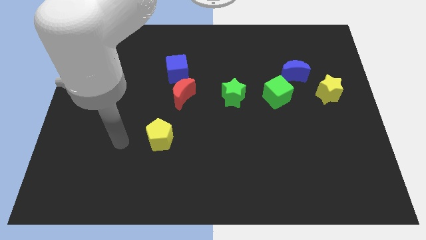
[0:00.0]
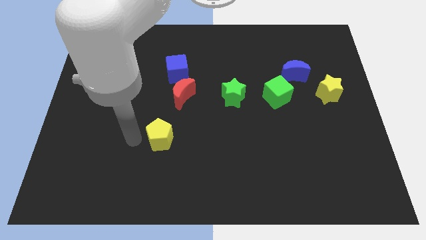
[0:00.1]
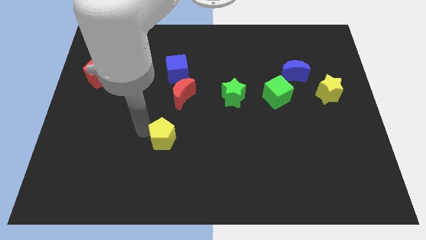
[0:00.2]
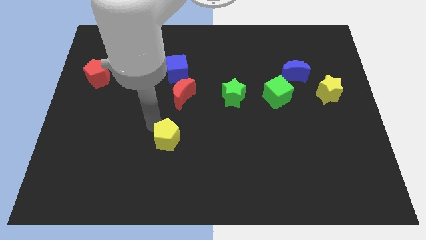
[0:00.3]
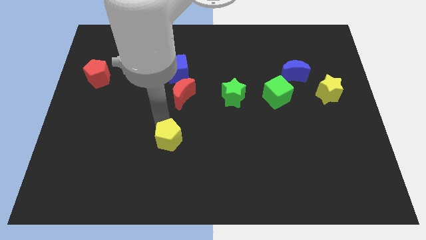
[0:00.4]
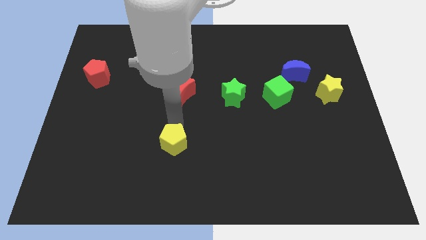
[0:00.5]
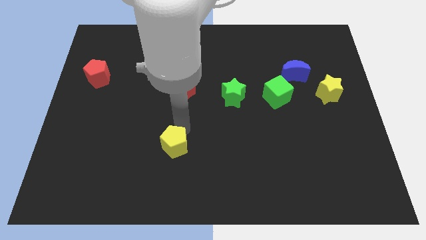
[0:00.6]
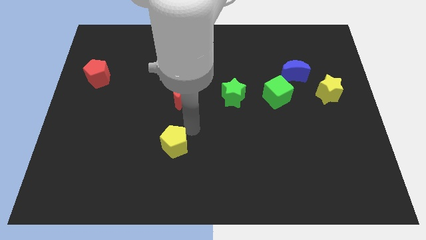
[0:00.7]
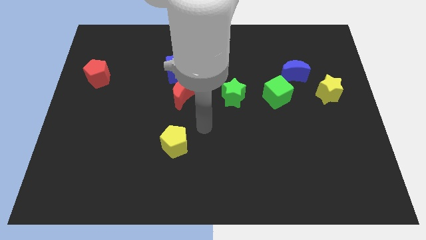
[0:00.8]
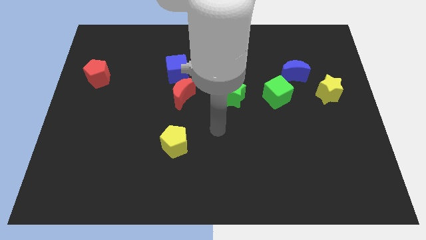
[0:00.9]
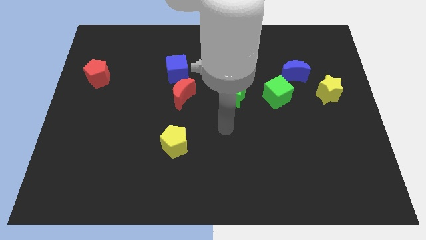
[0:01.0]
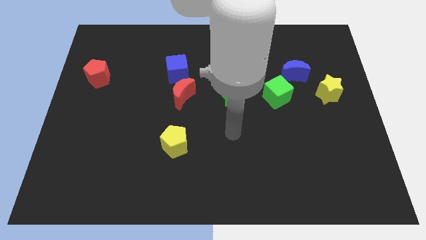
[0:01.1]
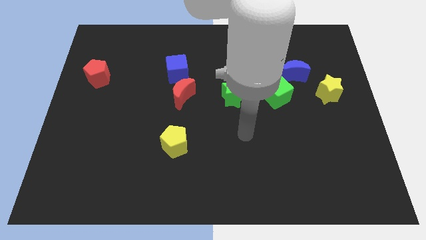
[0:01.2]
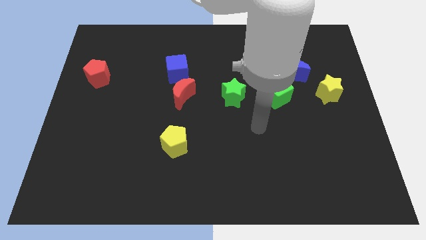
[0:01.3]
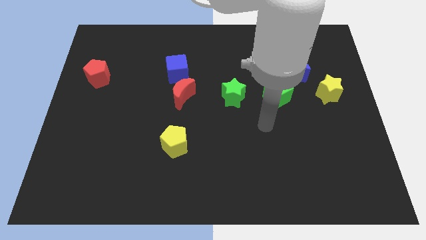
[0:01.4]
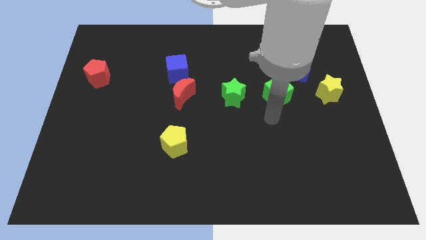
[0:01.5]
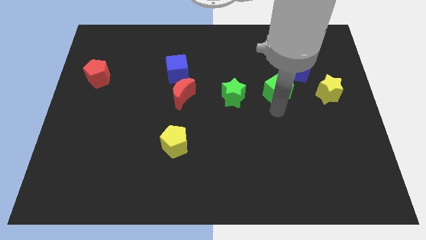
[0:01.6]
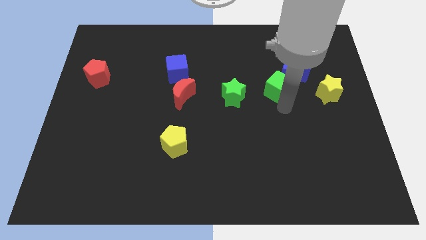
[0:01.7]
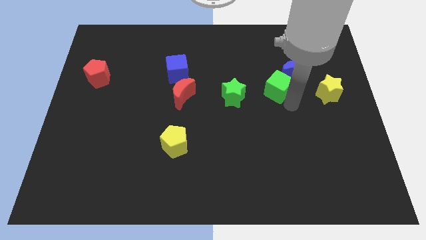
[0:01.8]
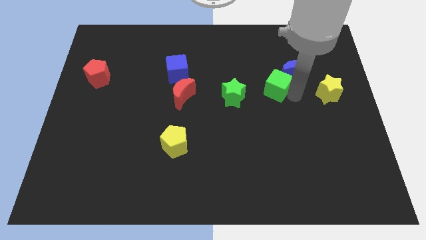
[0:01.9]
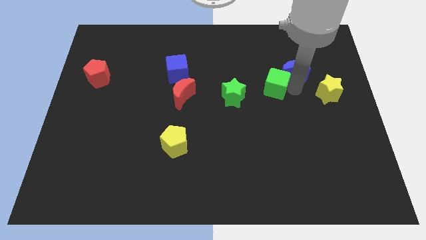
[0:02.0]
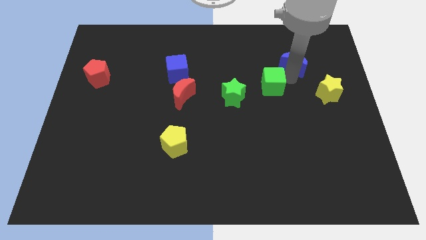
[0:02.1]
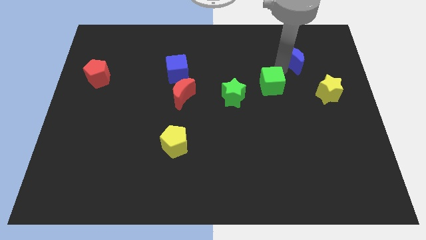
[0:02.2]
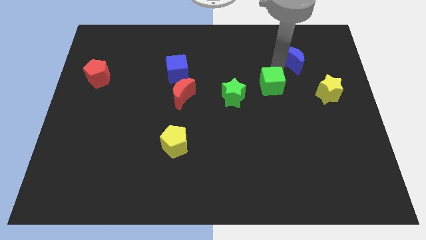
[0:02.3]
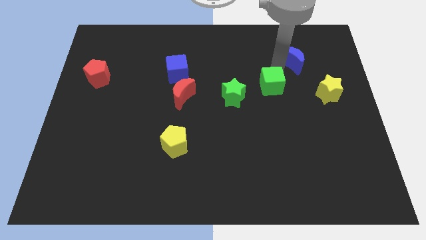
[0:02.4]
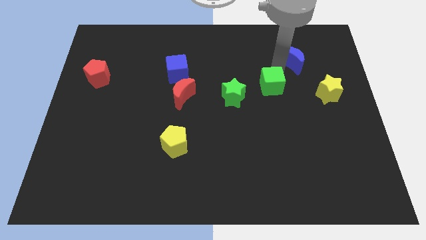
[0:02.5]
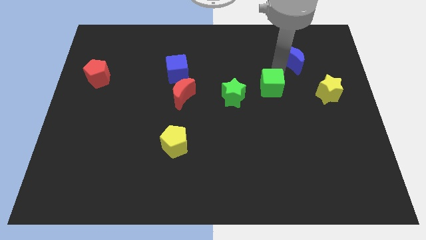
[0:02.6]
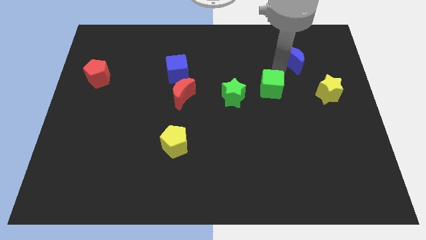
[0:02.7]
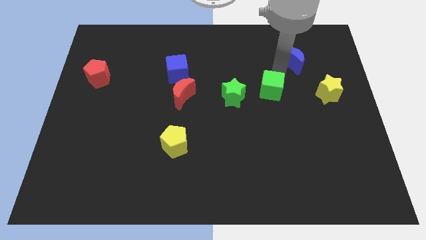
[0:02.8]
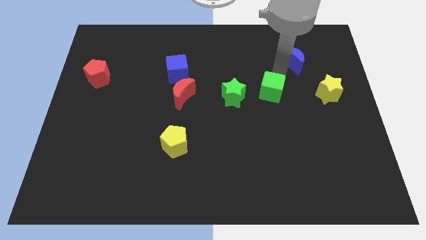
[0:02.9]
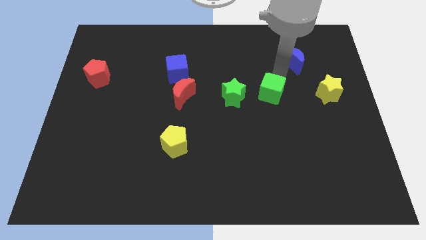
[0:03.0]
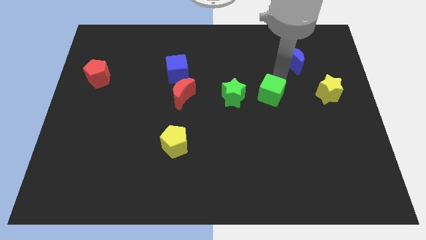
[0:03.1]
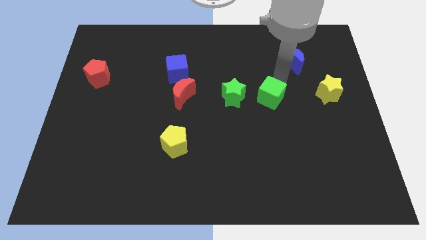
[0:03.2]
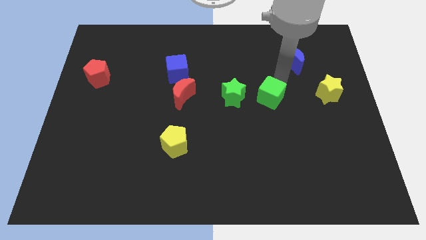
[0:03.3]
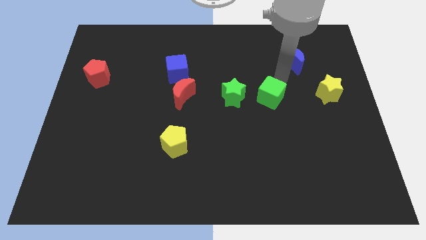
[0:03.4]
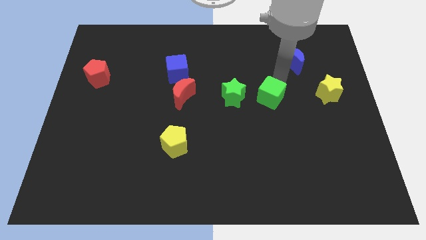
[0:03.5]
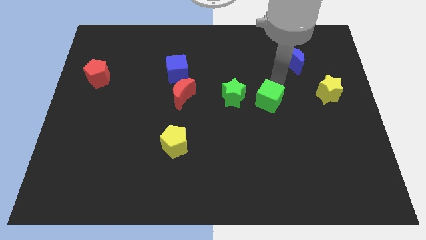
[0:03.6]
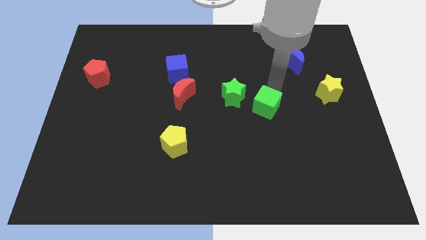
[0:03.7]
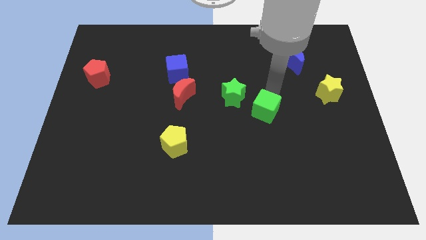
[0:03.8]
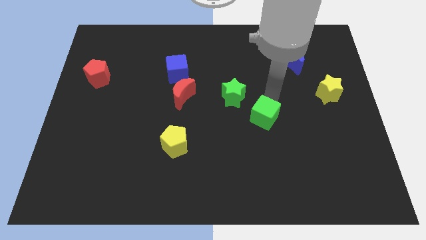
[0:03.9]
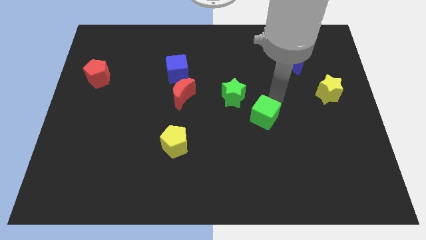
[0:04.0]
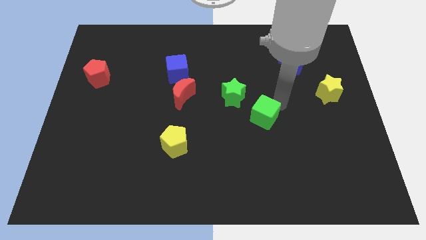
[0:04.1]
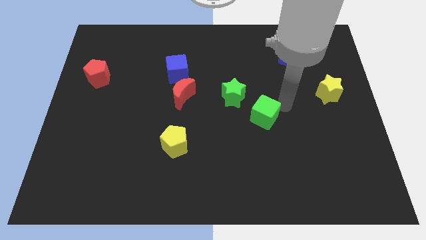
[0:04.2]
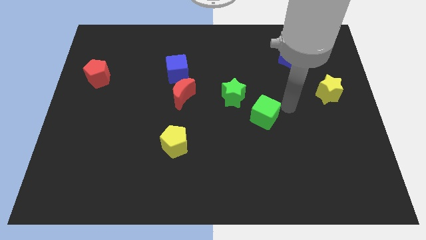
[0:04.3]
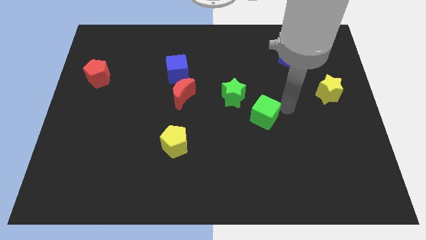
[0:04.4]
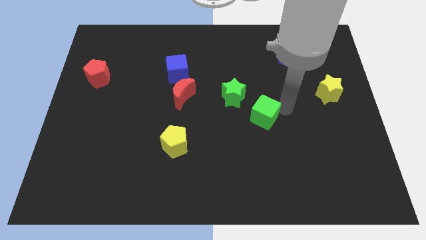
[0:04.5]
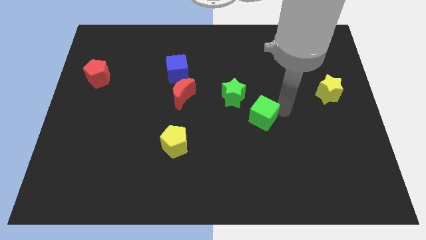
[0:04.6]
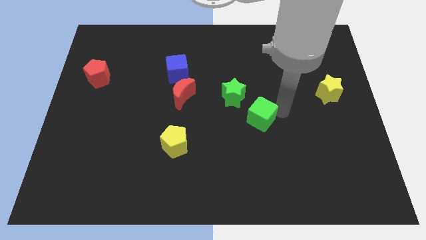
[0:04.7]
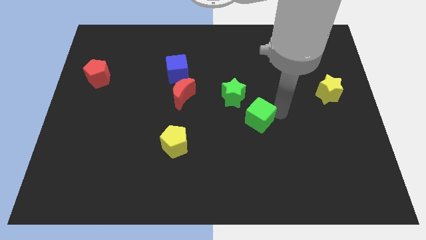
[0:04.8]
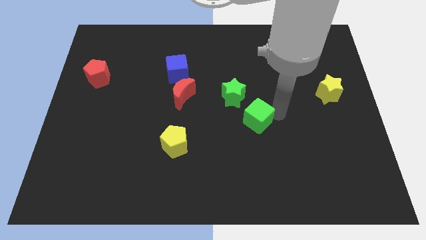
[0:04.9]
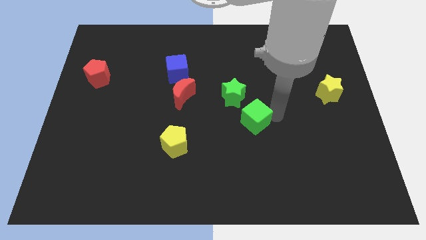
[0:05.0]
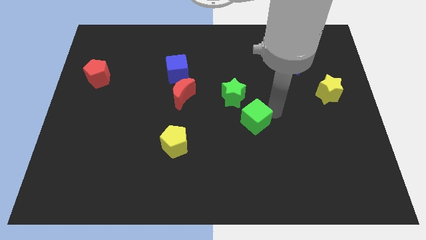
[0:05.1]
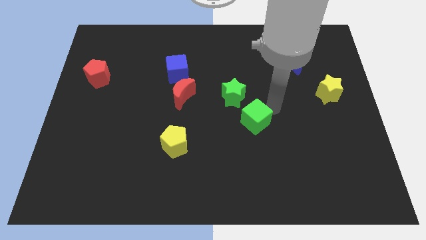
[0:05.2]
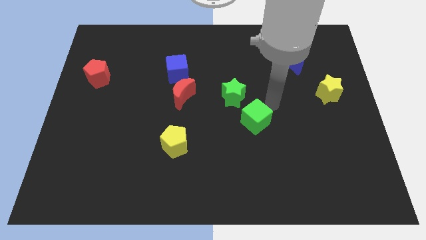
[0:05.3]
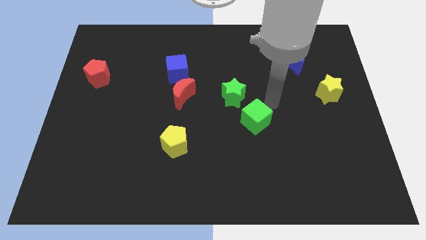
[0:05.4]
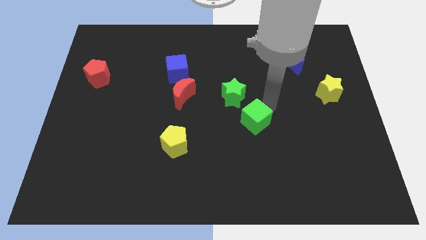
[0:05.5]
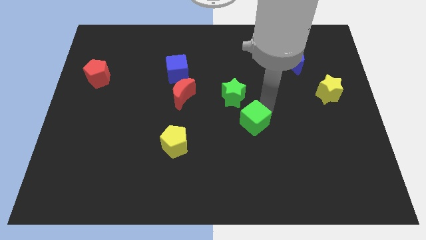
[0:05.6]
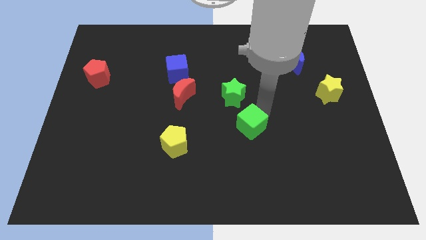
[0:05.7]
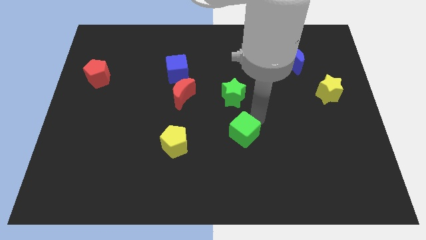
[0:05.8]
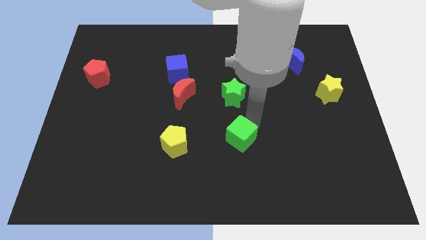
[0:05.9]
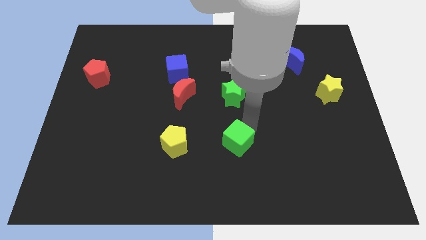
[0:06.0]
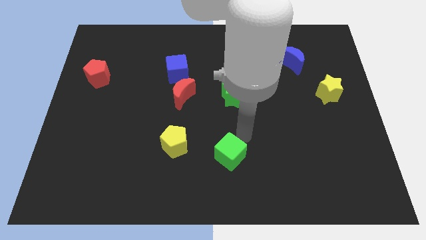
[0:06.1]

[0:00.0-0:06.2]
push the green cube diagonally down and left

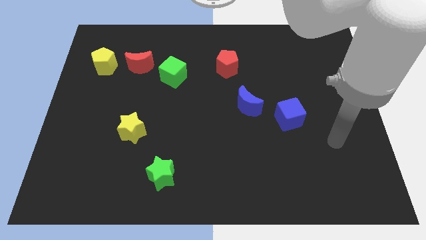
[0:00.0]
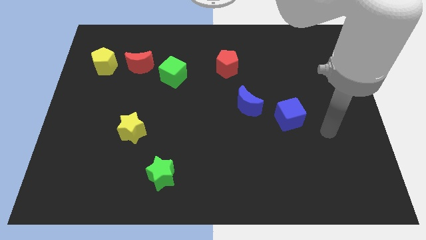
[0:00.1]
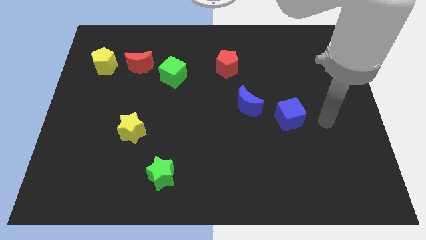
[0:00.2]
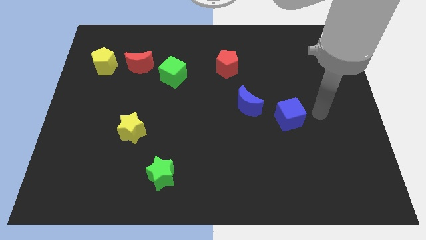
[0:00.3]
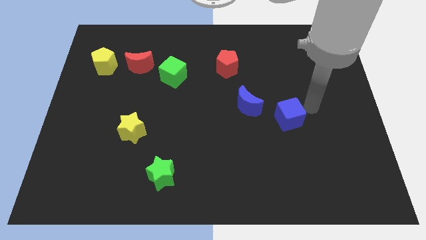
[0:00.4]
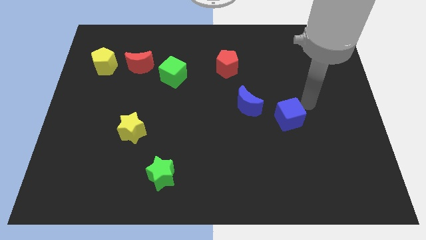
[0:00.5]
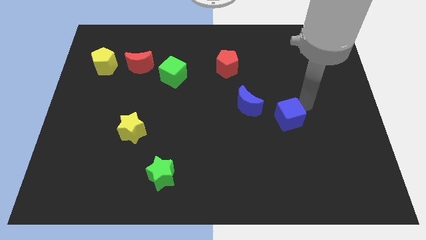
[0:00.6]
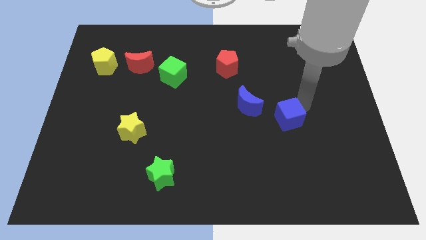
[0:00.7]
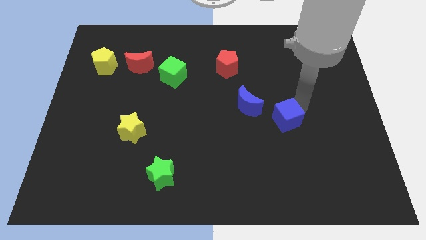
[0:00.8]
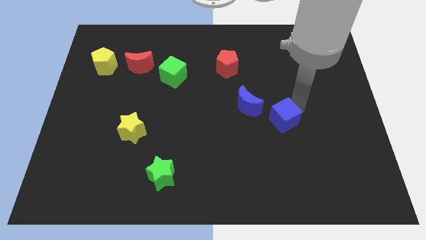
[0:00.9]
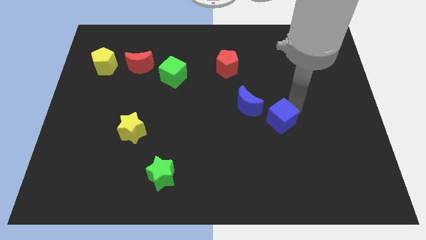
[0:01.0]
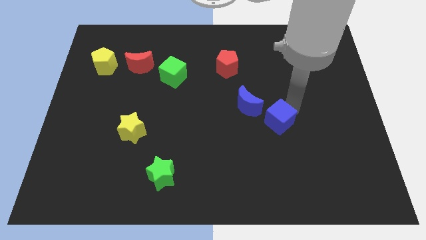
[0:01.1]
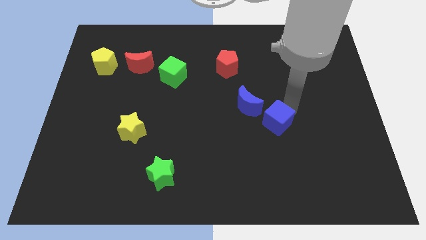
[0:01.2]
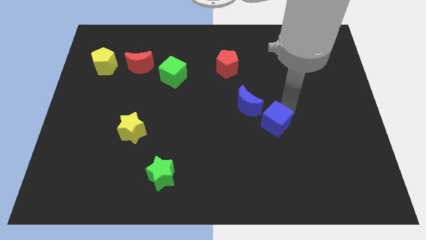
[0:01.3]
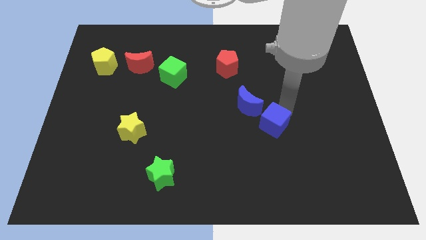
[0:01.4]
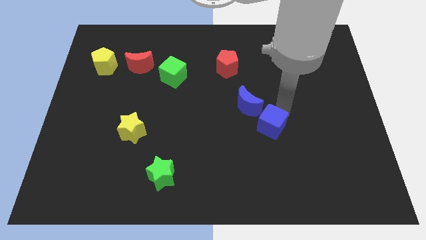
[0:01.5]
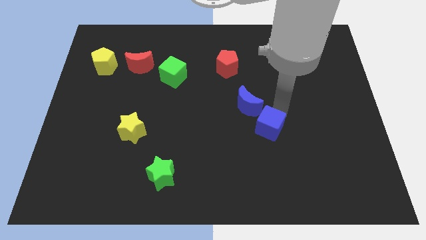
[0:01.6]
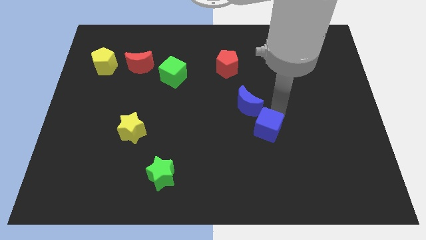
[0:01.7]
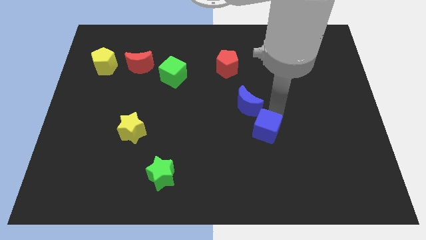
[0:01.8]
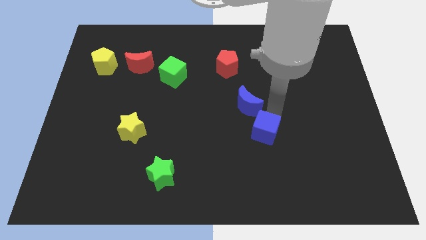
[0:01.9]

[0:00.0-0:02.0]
slide the blue cube a bit downwards and left
